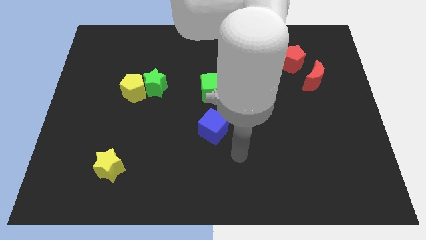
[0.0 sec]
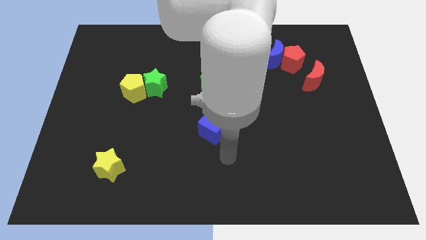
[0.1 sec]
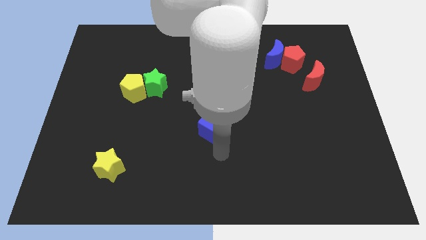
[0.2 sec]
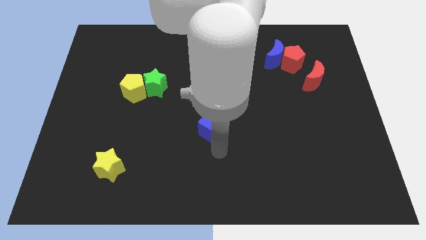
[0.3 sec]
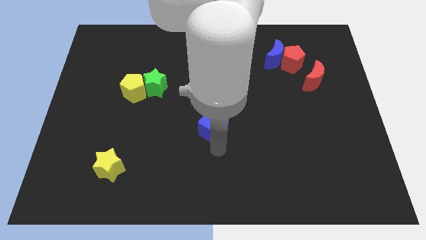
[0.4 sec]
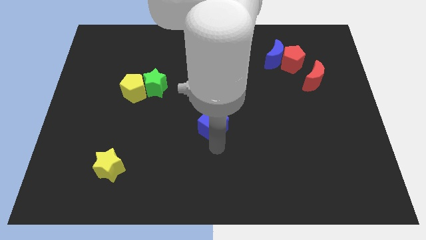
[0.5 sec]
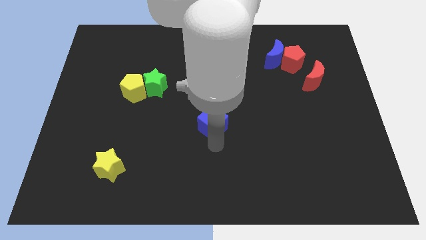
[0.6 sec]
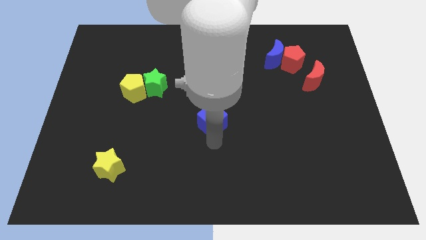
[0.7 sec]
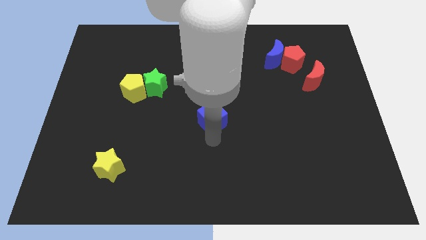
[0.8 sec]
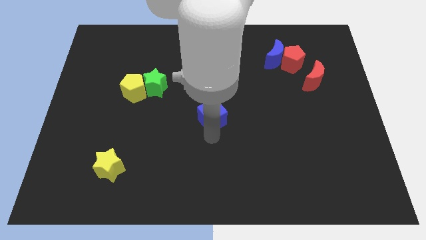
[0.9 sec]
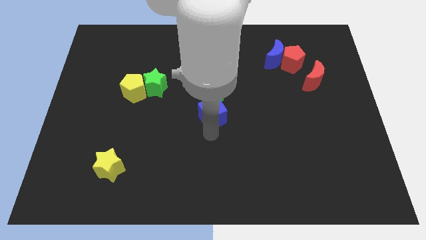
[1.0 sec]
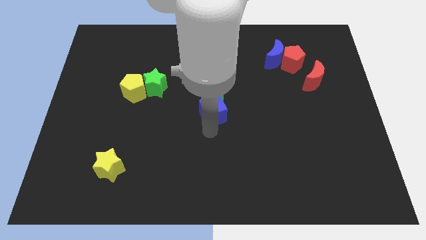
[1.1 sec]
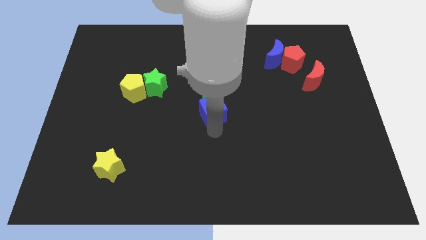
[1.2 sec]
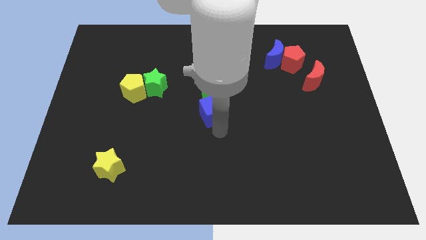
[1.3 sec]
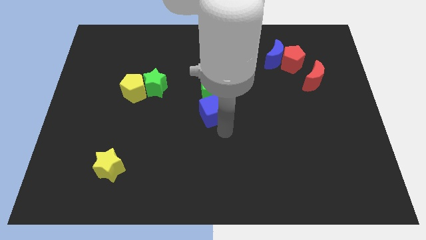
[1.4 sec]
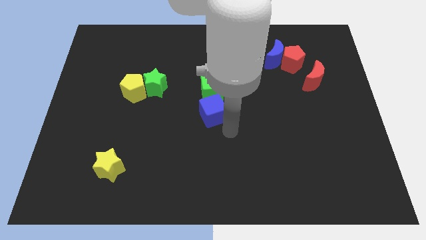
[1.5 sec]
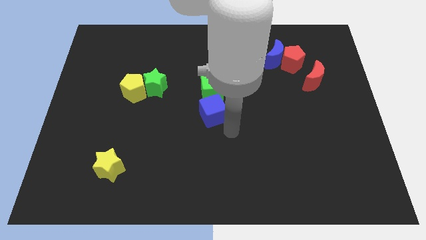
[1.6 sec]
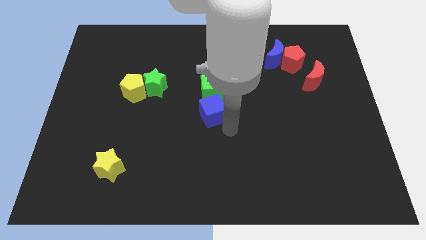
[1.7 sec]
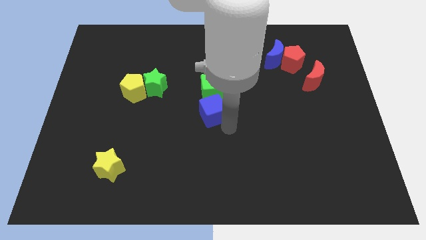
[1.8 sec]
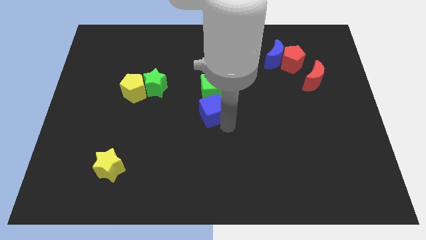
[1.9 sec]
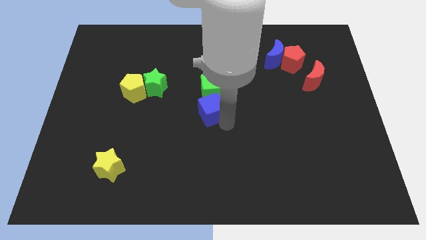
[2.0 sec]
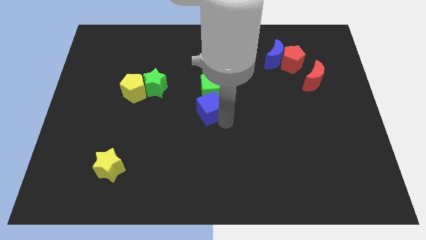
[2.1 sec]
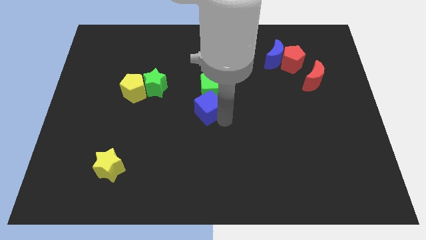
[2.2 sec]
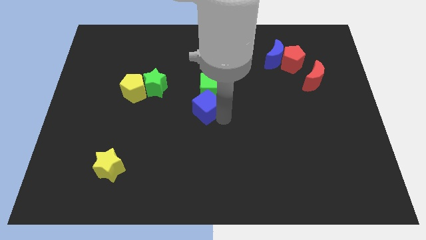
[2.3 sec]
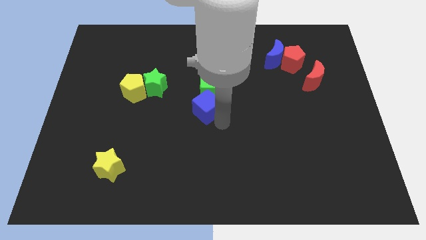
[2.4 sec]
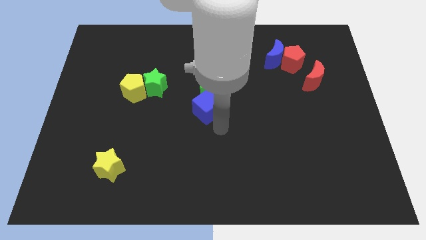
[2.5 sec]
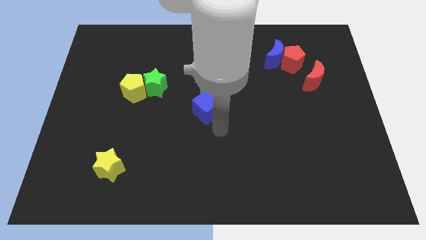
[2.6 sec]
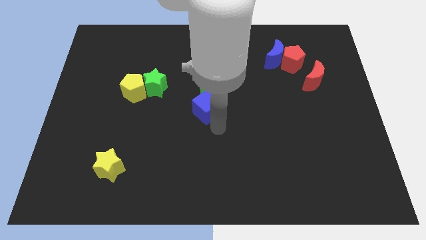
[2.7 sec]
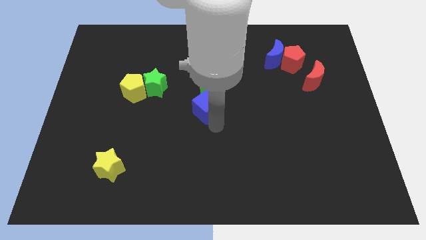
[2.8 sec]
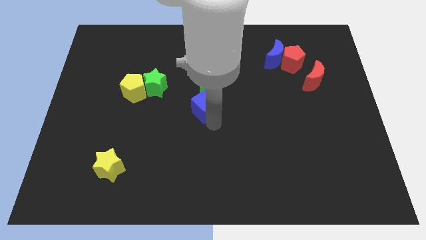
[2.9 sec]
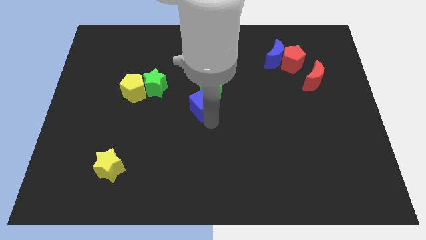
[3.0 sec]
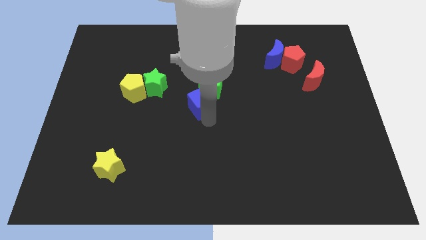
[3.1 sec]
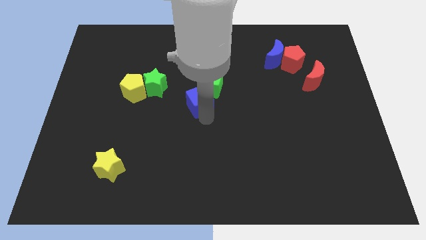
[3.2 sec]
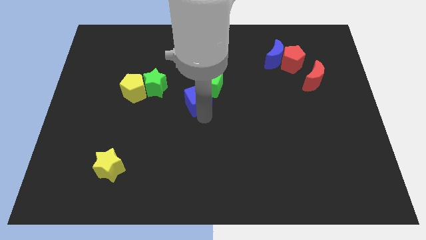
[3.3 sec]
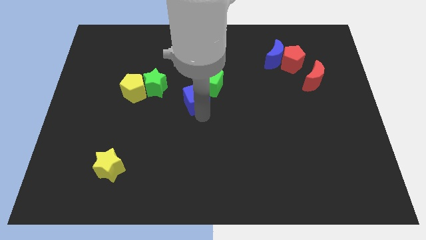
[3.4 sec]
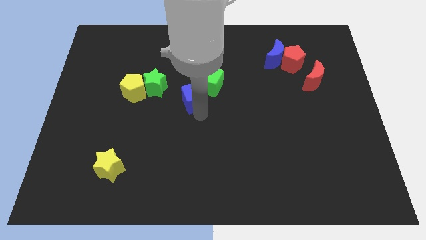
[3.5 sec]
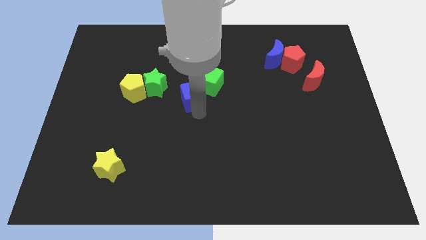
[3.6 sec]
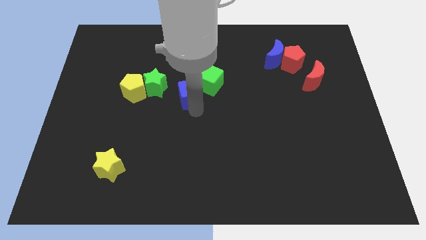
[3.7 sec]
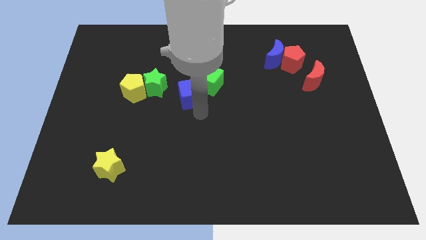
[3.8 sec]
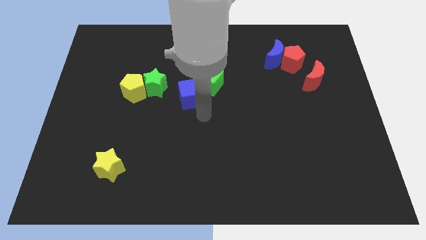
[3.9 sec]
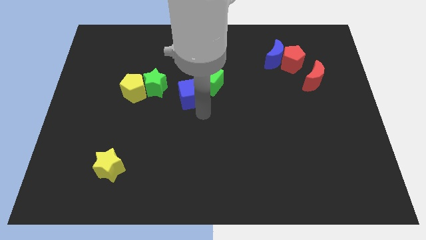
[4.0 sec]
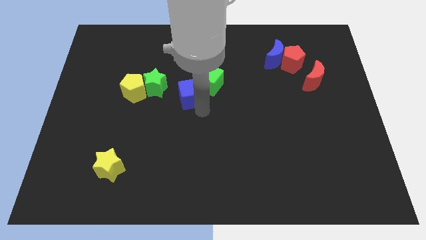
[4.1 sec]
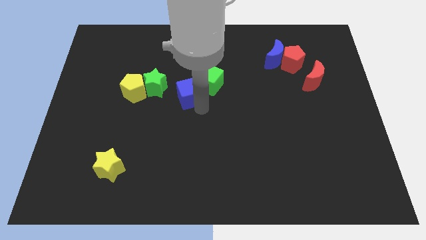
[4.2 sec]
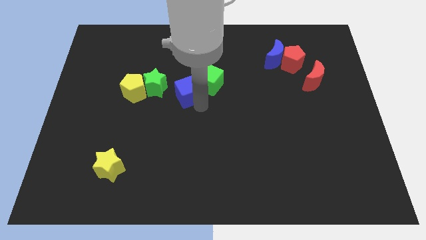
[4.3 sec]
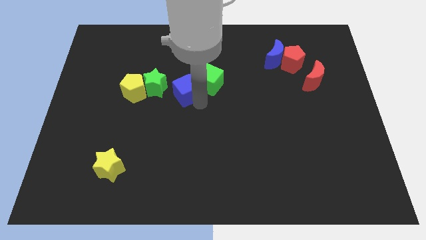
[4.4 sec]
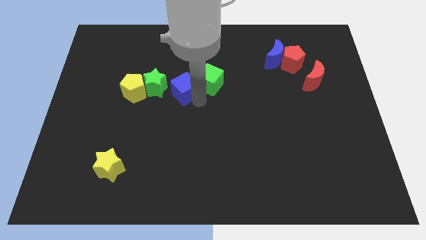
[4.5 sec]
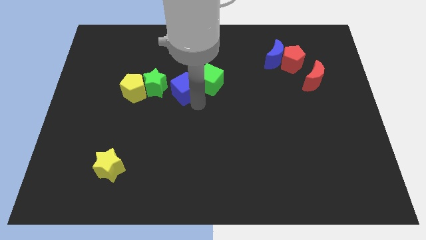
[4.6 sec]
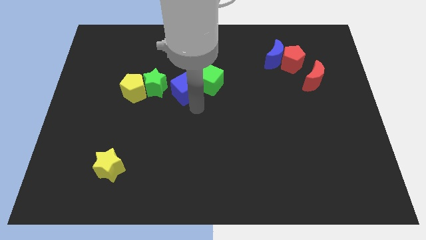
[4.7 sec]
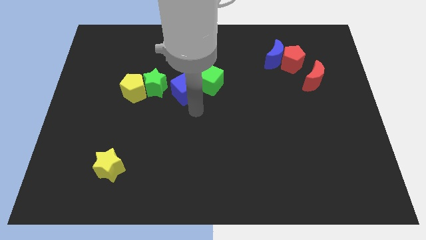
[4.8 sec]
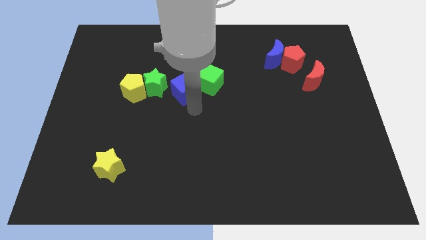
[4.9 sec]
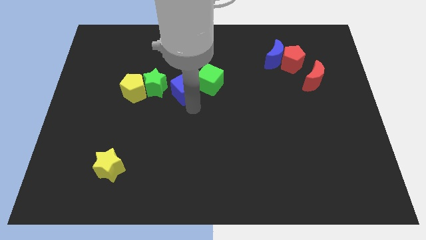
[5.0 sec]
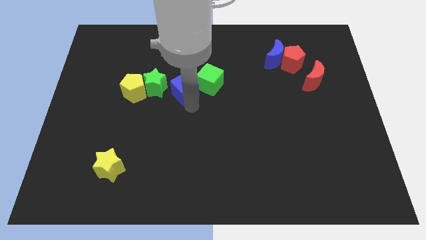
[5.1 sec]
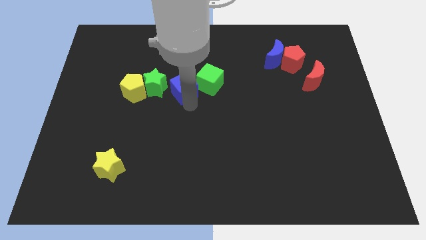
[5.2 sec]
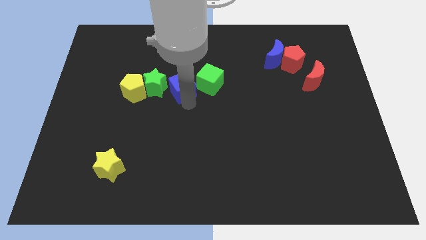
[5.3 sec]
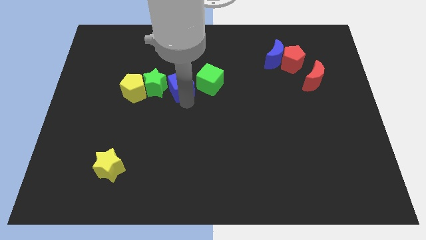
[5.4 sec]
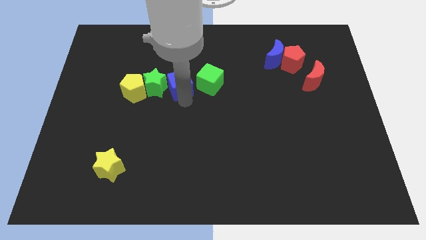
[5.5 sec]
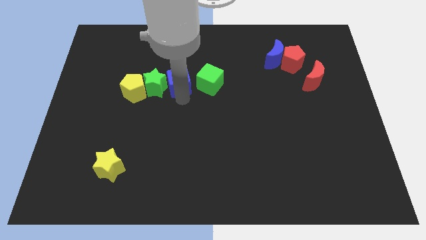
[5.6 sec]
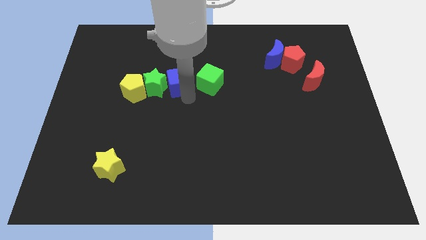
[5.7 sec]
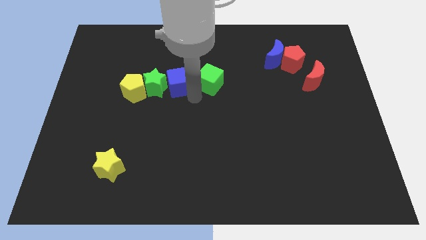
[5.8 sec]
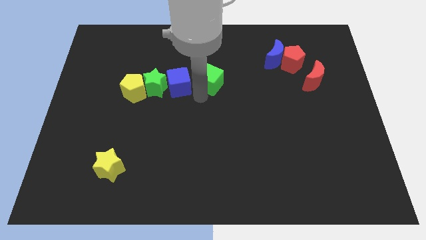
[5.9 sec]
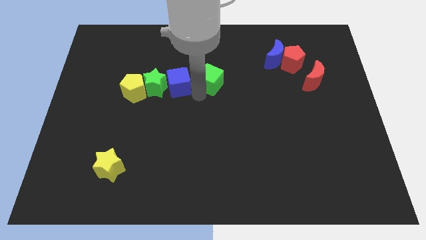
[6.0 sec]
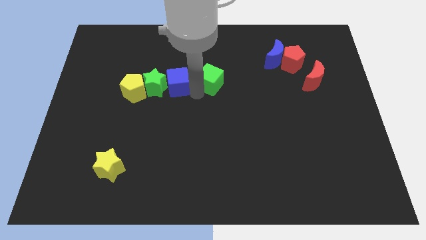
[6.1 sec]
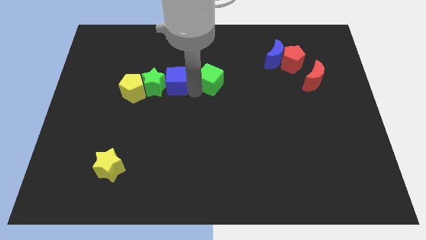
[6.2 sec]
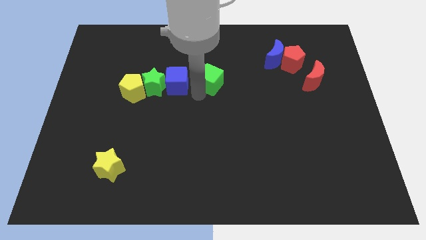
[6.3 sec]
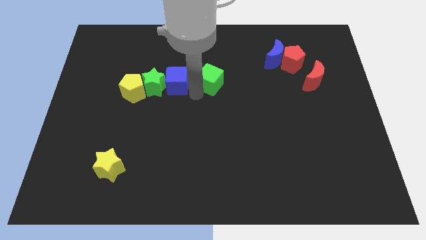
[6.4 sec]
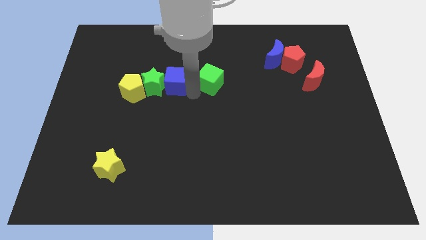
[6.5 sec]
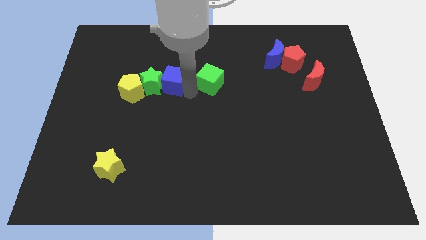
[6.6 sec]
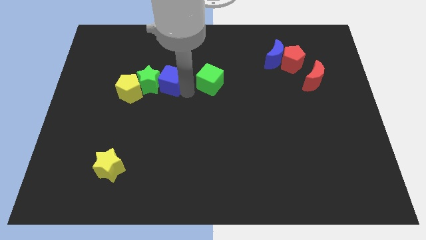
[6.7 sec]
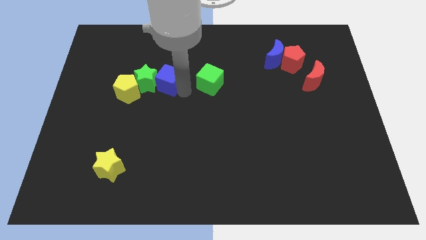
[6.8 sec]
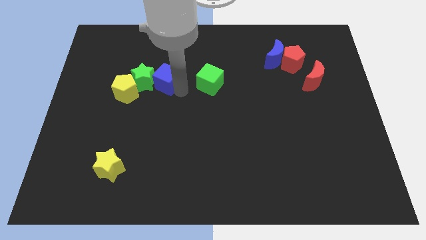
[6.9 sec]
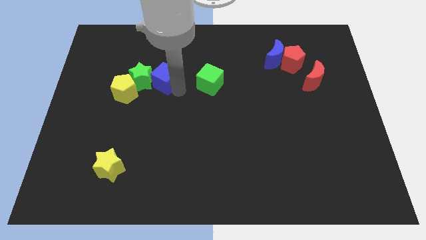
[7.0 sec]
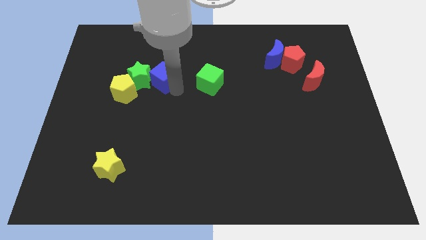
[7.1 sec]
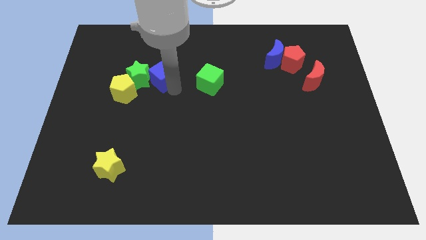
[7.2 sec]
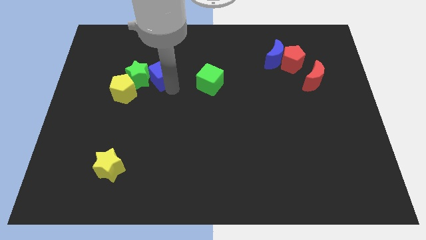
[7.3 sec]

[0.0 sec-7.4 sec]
push the blue cube up and left
